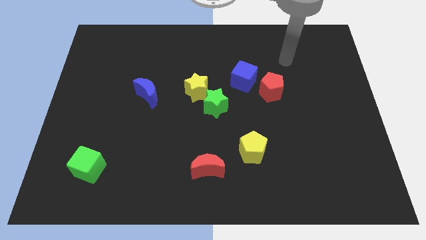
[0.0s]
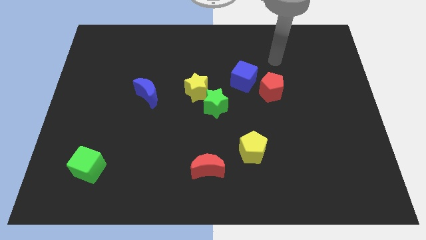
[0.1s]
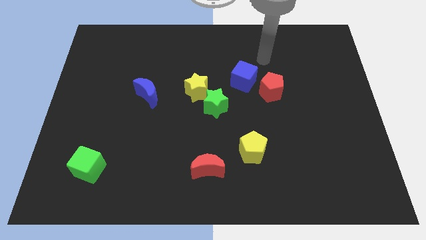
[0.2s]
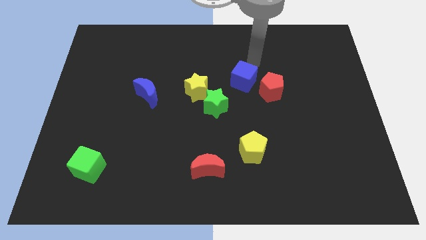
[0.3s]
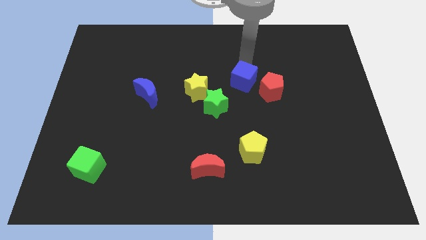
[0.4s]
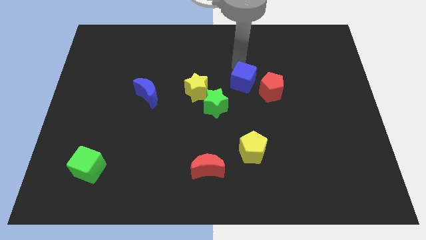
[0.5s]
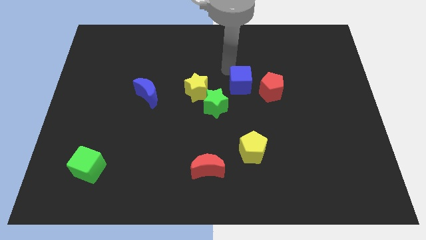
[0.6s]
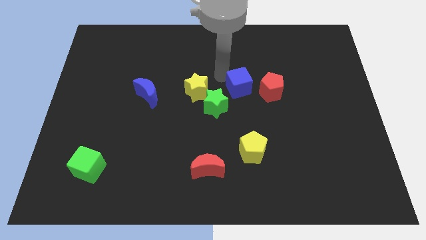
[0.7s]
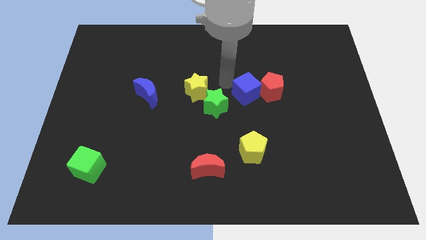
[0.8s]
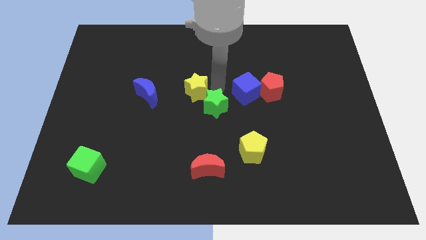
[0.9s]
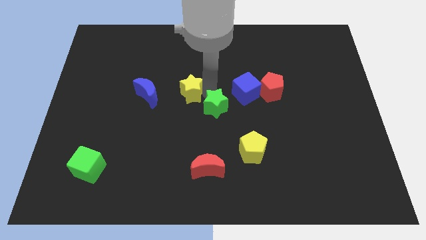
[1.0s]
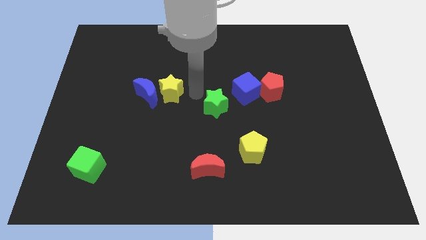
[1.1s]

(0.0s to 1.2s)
separate the green star from the yellow star

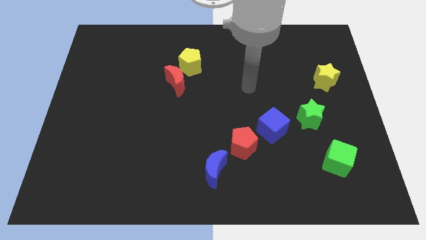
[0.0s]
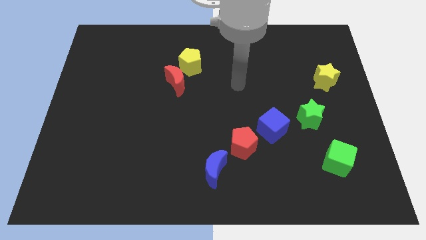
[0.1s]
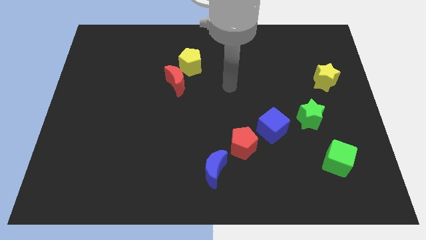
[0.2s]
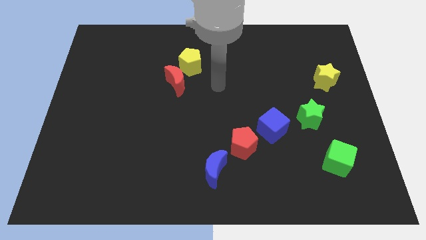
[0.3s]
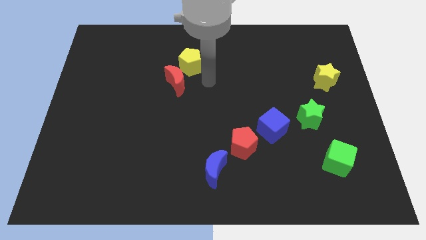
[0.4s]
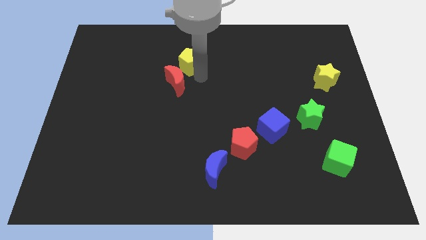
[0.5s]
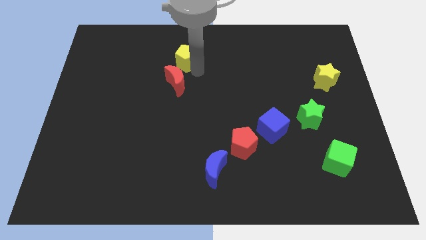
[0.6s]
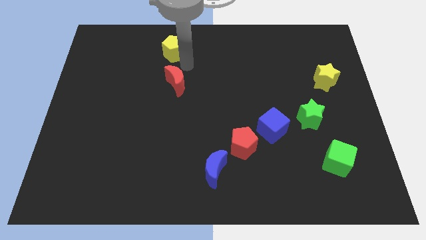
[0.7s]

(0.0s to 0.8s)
move the red moon away from the yellow pentagon

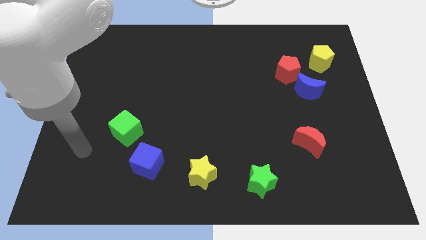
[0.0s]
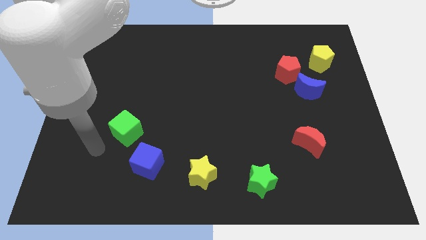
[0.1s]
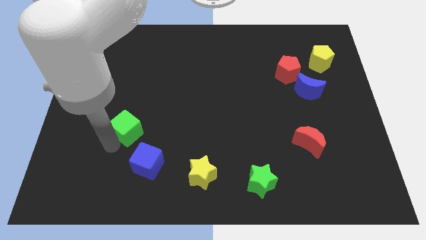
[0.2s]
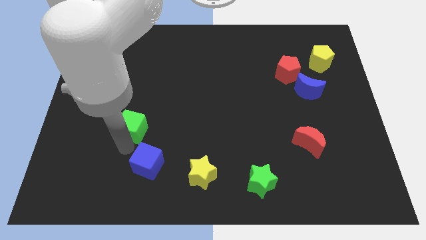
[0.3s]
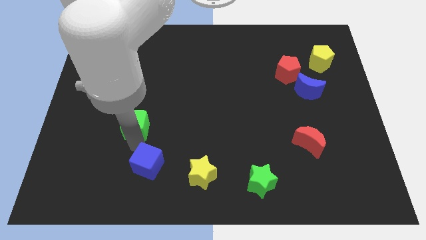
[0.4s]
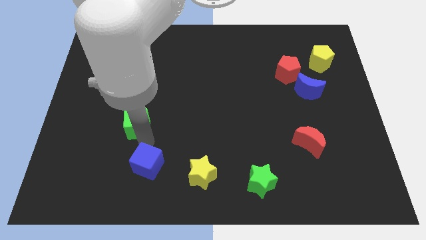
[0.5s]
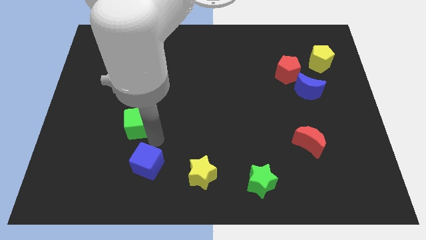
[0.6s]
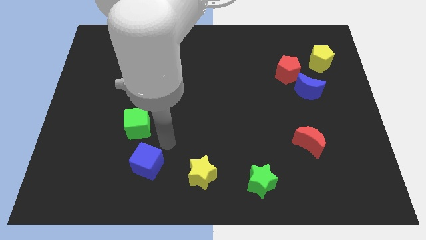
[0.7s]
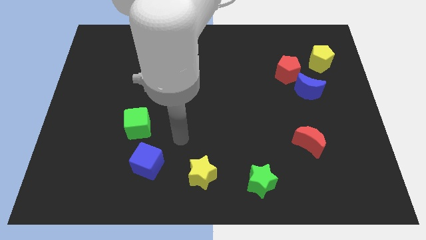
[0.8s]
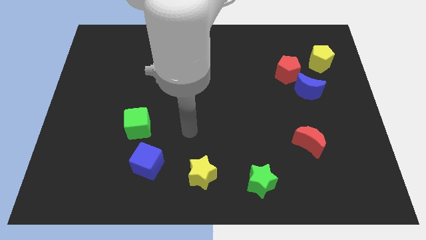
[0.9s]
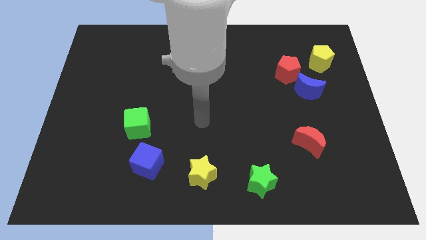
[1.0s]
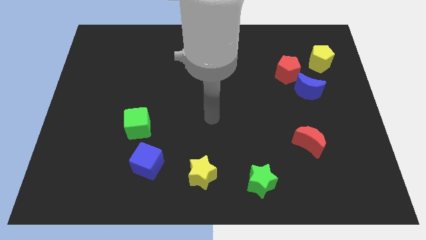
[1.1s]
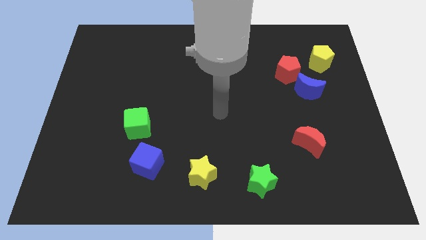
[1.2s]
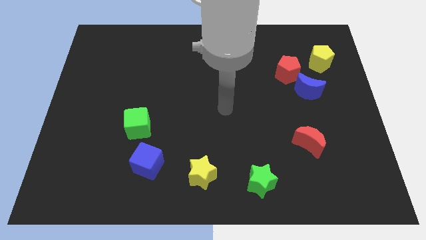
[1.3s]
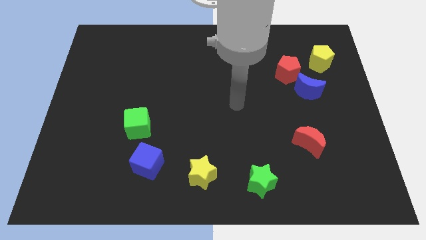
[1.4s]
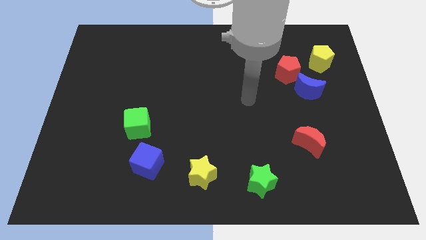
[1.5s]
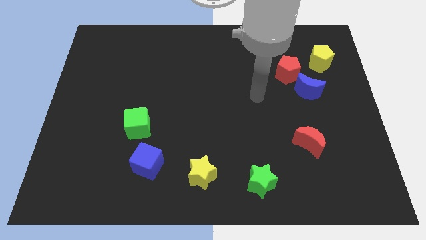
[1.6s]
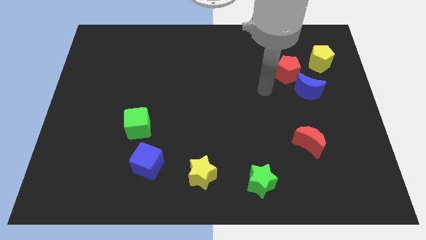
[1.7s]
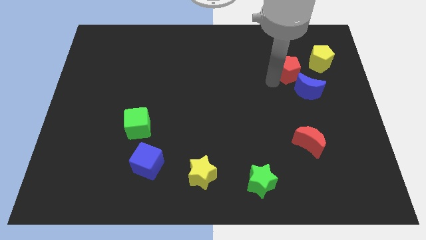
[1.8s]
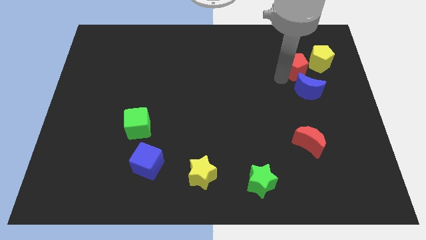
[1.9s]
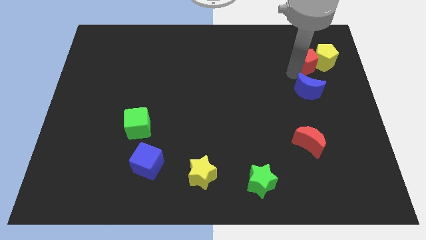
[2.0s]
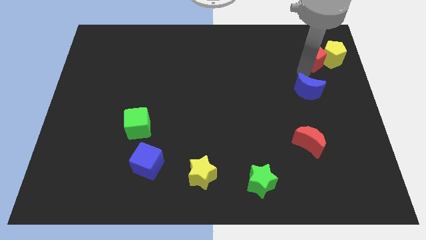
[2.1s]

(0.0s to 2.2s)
move the blue moon away from the red pentagon

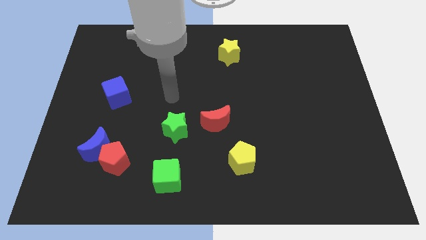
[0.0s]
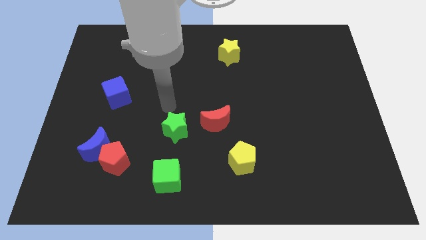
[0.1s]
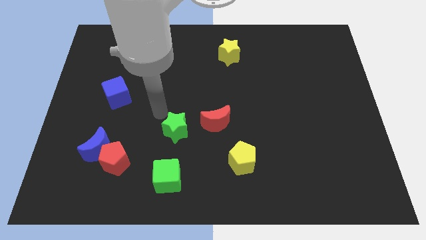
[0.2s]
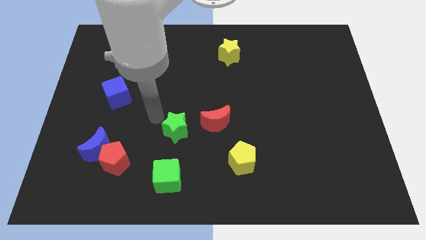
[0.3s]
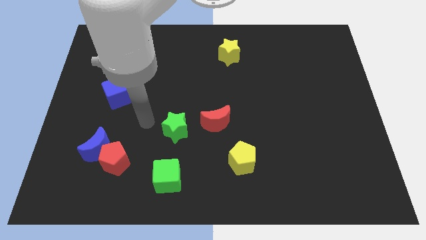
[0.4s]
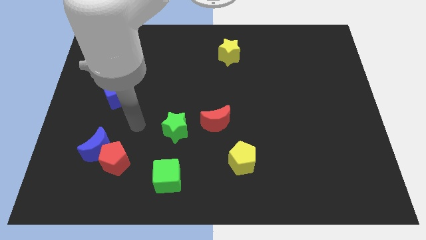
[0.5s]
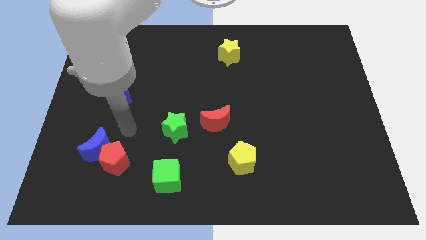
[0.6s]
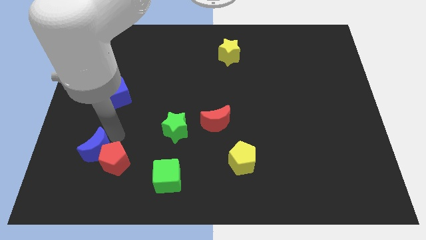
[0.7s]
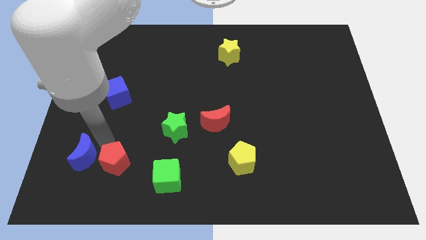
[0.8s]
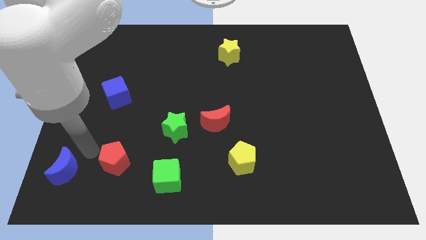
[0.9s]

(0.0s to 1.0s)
separate the red pentagon from the blue moon

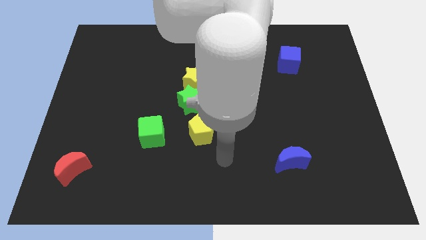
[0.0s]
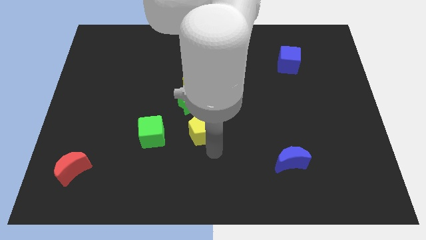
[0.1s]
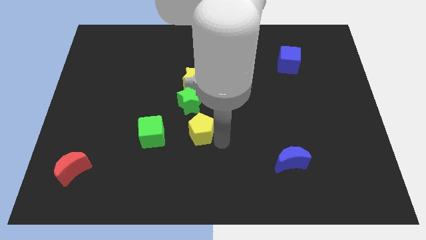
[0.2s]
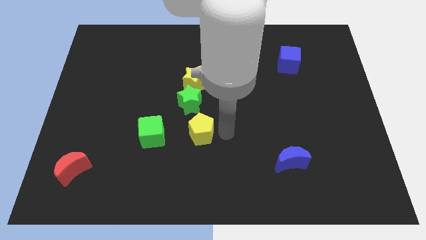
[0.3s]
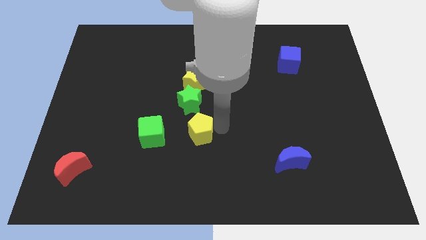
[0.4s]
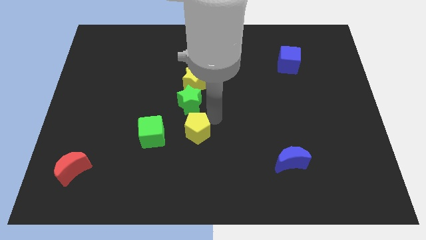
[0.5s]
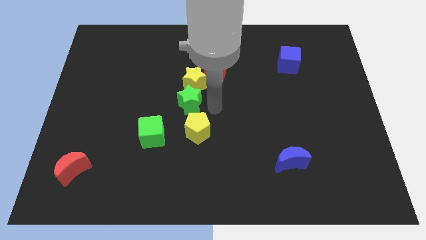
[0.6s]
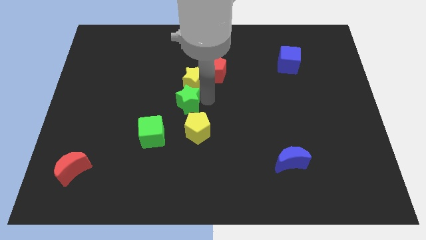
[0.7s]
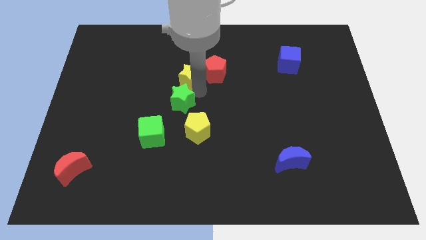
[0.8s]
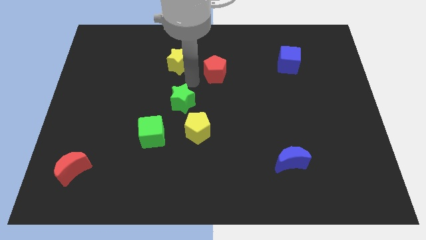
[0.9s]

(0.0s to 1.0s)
pull the red pentagon apart from the yellow star

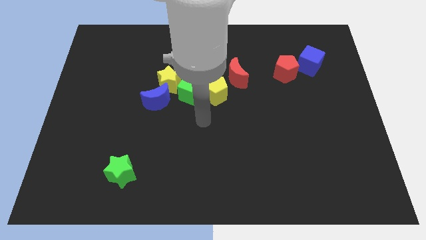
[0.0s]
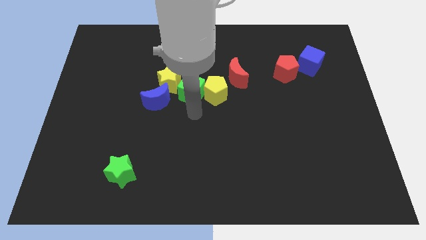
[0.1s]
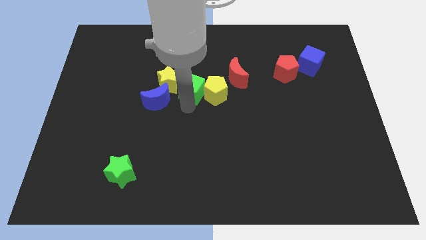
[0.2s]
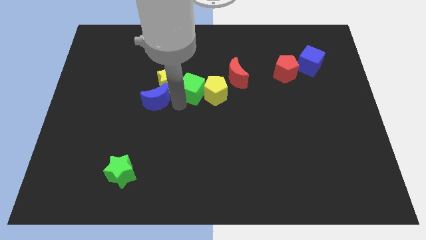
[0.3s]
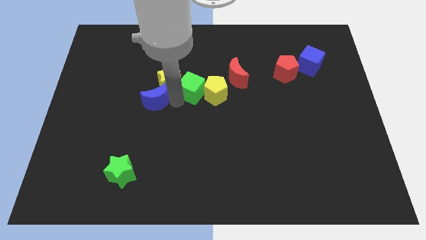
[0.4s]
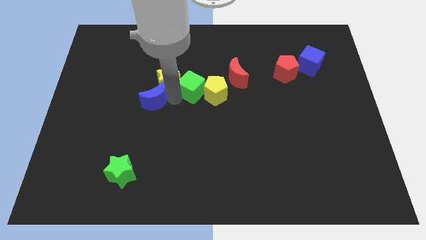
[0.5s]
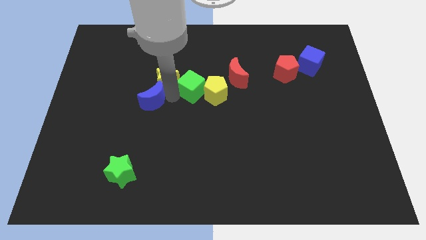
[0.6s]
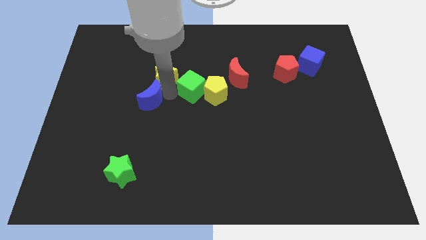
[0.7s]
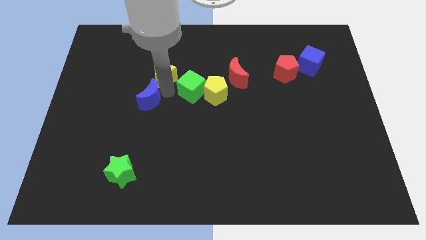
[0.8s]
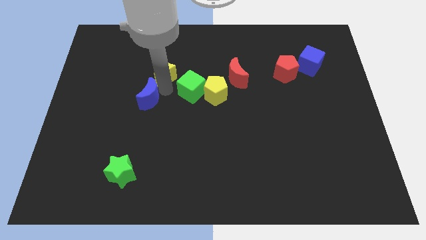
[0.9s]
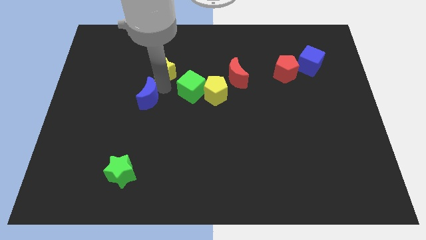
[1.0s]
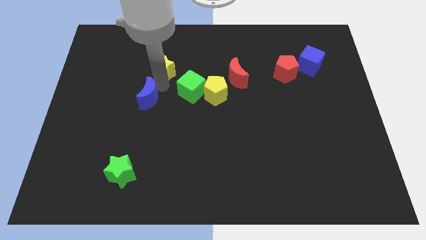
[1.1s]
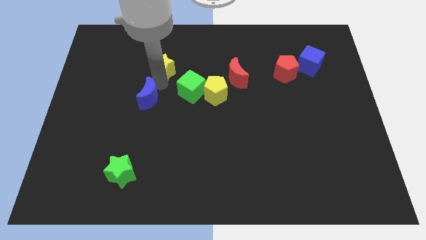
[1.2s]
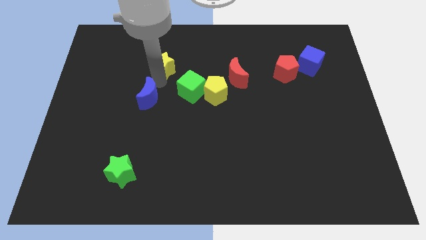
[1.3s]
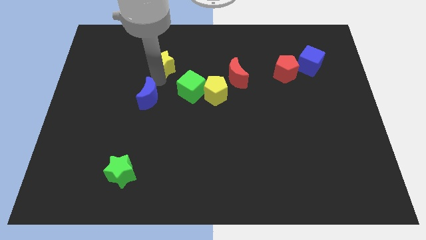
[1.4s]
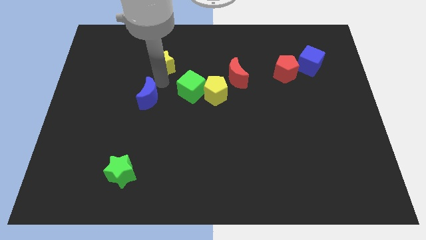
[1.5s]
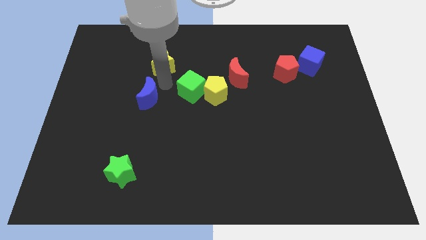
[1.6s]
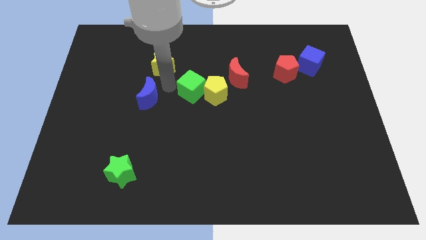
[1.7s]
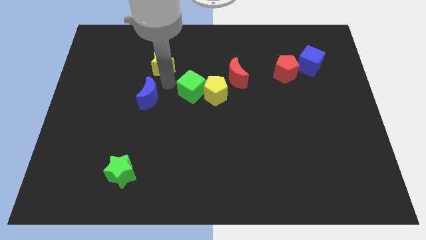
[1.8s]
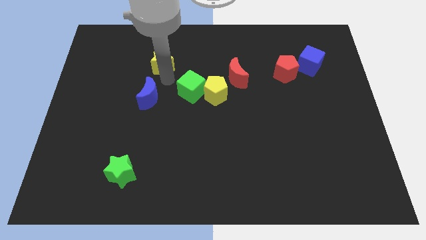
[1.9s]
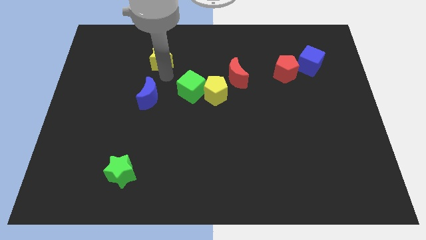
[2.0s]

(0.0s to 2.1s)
move the yellow star away from the blue moon and green cube

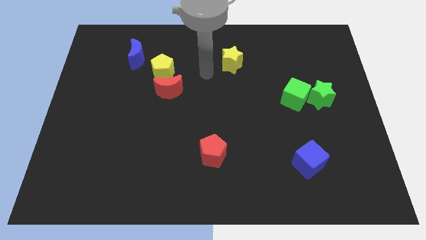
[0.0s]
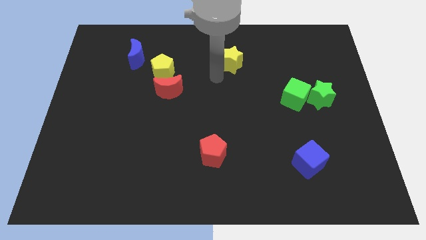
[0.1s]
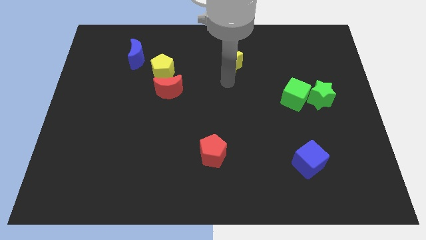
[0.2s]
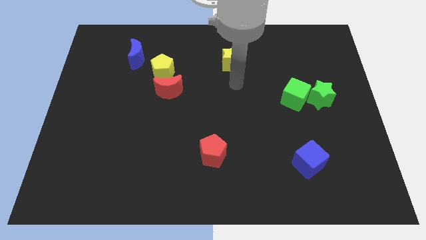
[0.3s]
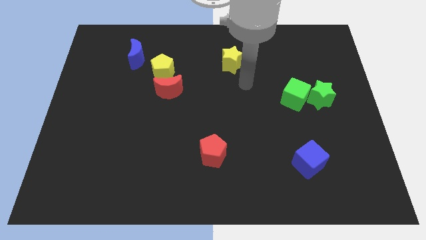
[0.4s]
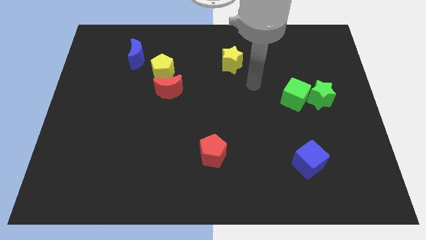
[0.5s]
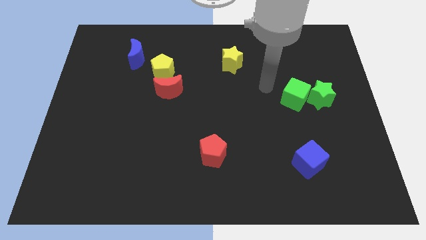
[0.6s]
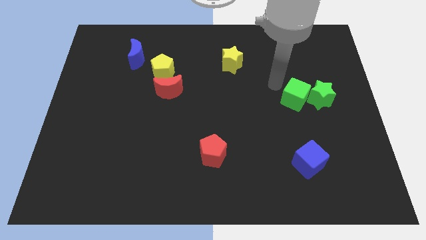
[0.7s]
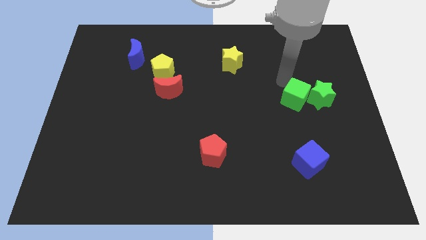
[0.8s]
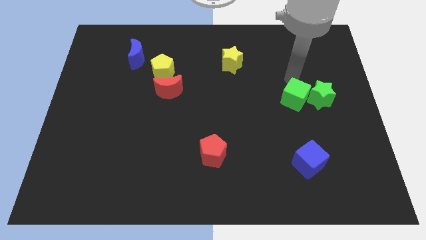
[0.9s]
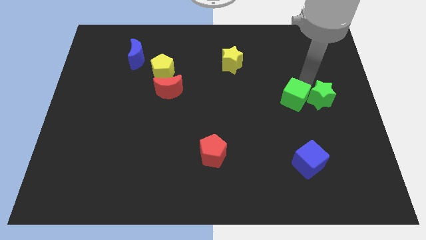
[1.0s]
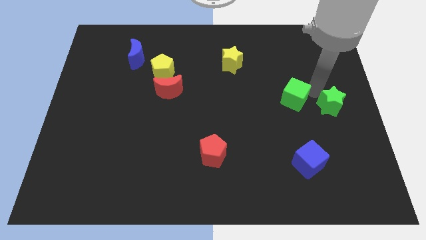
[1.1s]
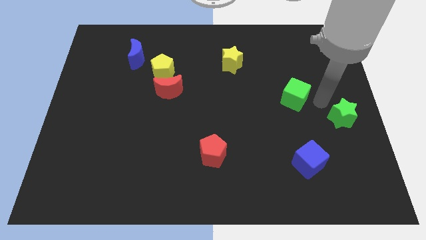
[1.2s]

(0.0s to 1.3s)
separate the green cube from the green star
